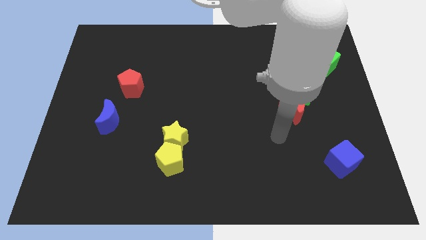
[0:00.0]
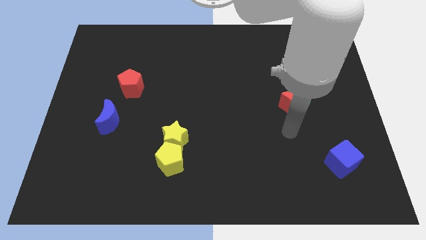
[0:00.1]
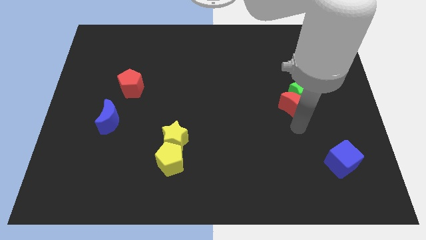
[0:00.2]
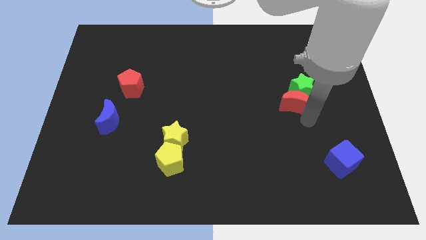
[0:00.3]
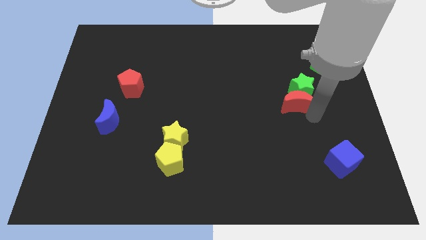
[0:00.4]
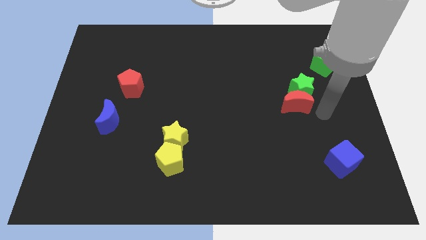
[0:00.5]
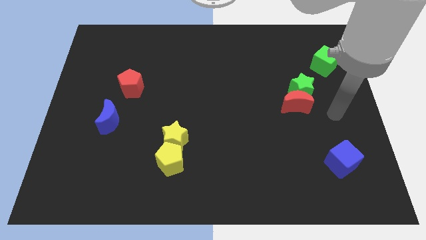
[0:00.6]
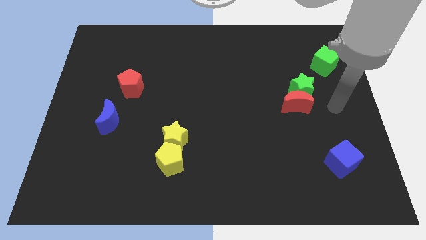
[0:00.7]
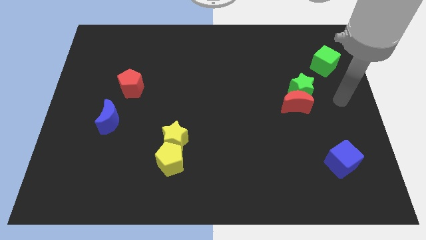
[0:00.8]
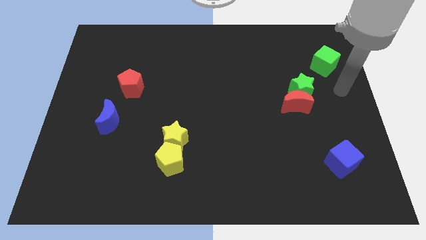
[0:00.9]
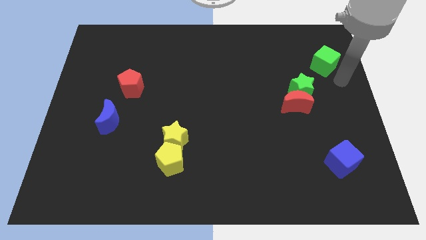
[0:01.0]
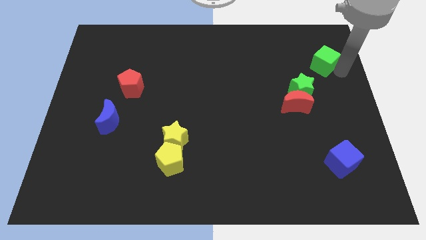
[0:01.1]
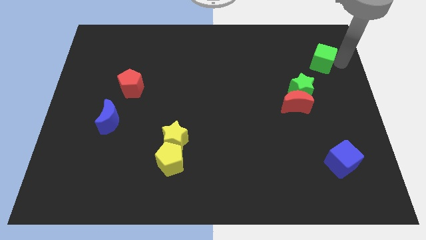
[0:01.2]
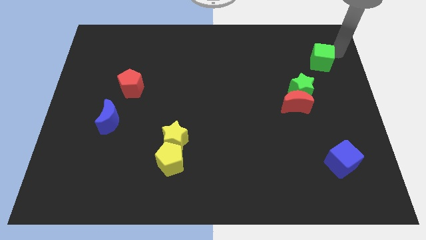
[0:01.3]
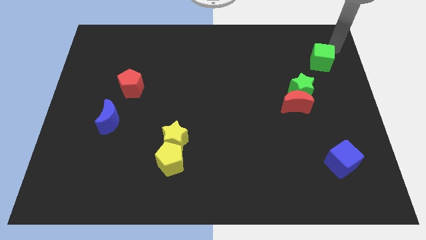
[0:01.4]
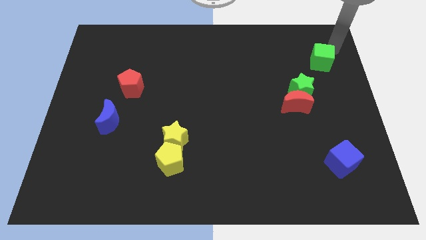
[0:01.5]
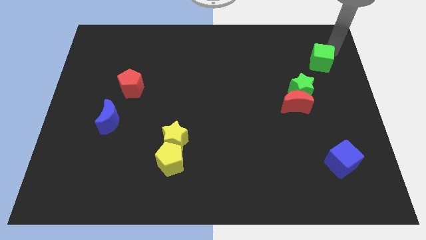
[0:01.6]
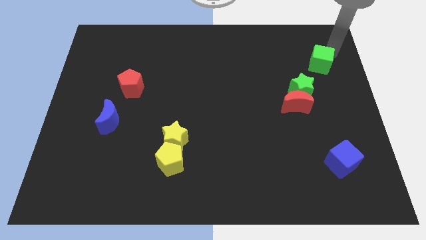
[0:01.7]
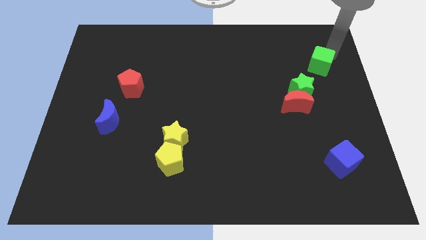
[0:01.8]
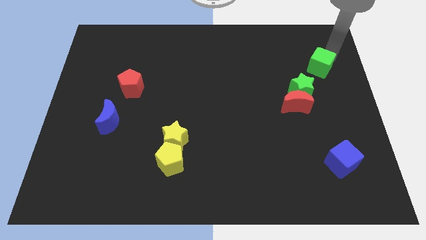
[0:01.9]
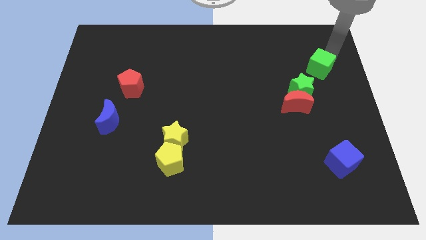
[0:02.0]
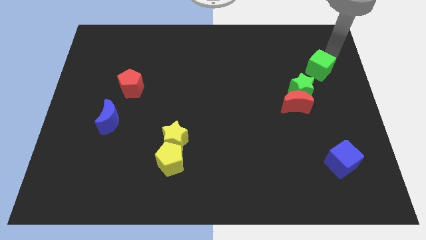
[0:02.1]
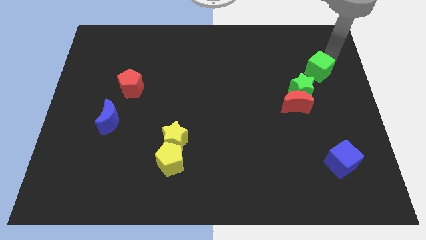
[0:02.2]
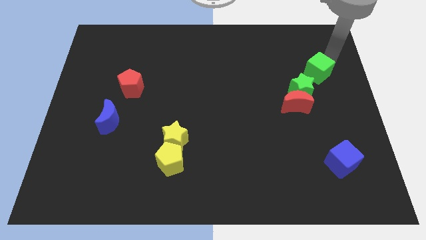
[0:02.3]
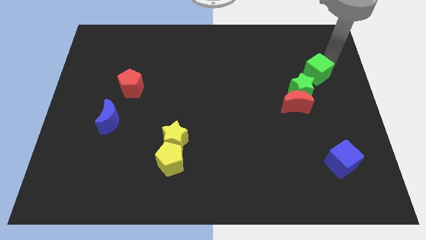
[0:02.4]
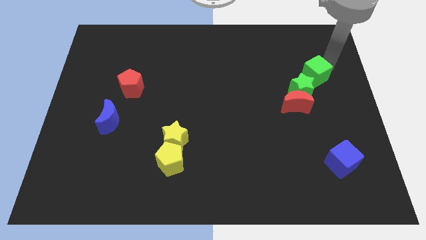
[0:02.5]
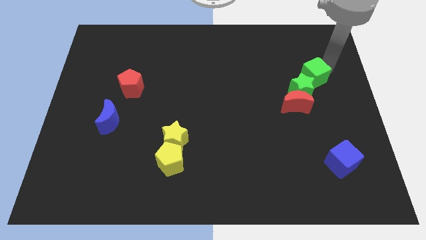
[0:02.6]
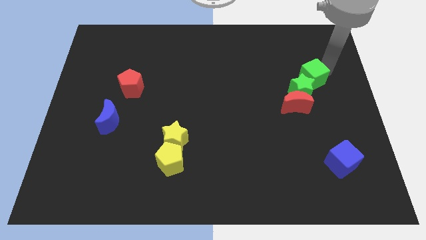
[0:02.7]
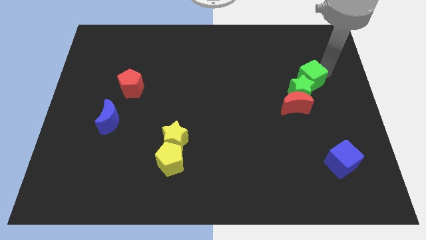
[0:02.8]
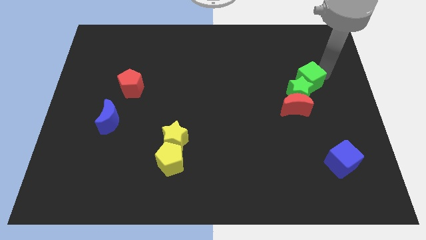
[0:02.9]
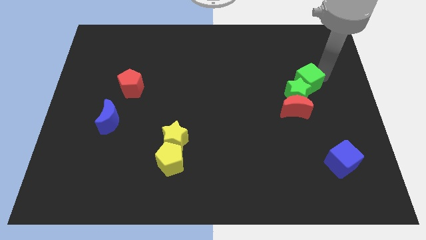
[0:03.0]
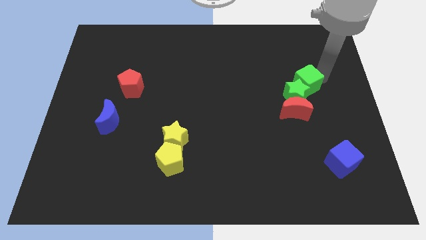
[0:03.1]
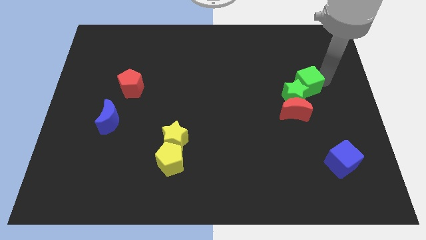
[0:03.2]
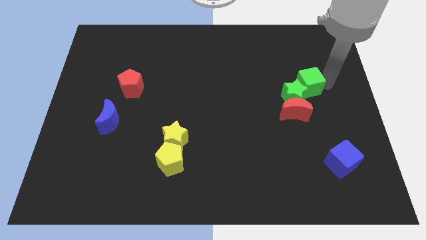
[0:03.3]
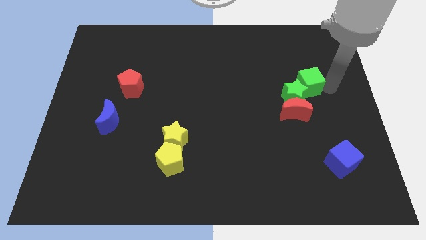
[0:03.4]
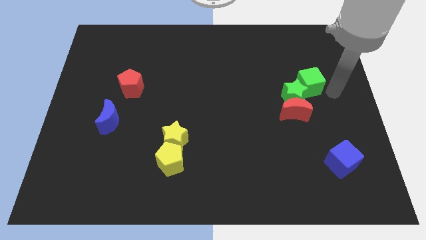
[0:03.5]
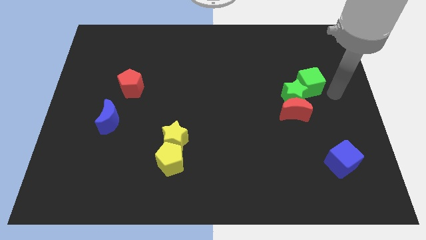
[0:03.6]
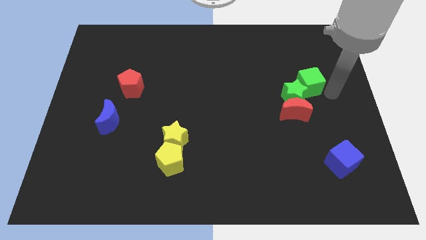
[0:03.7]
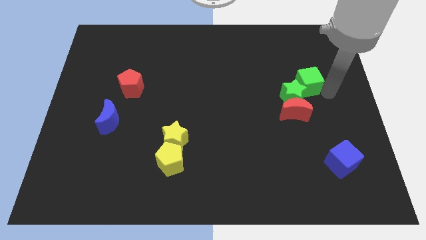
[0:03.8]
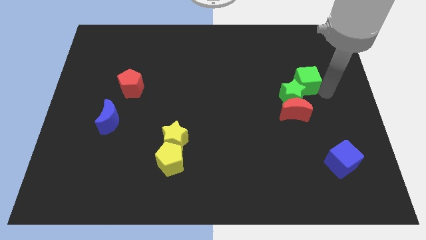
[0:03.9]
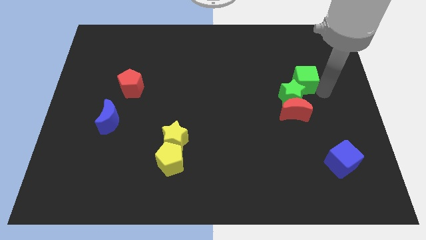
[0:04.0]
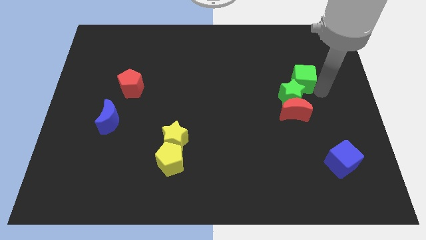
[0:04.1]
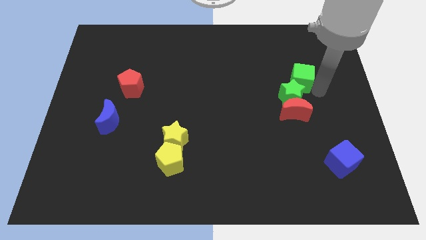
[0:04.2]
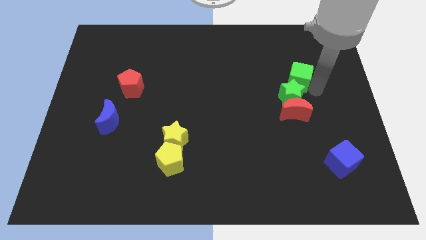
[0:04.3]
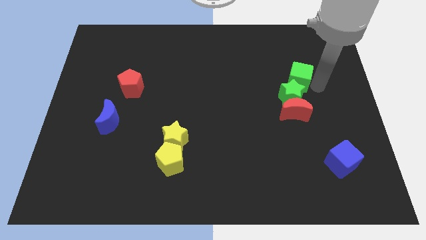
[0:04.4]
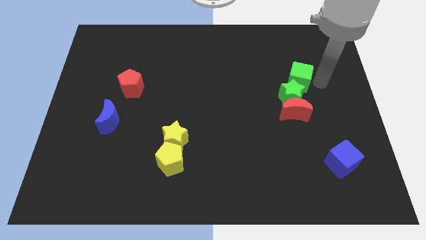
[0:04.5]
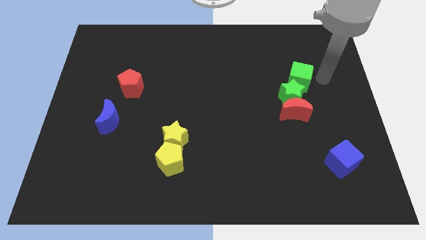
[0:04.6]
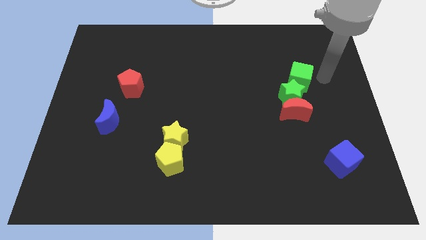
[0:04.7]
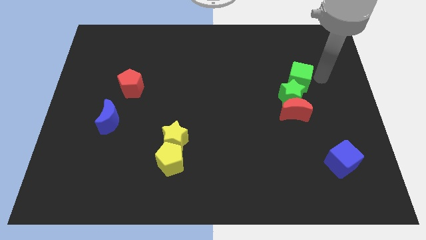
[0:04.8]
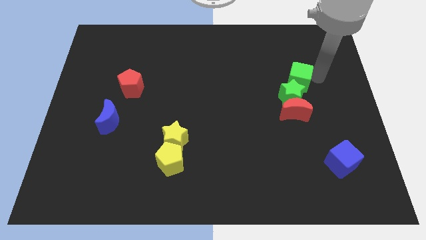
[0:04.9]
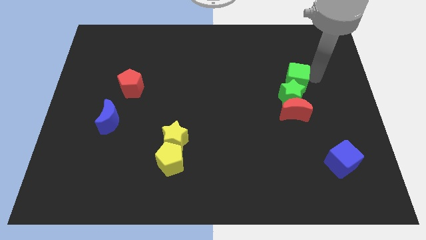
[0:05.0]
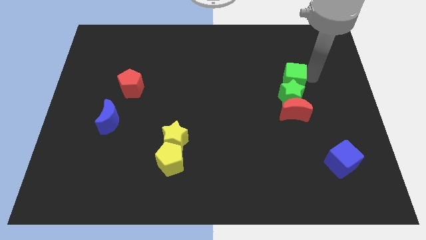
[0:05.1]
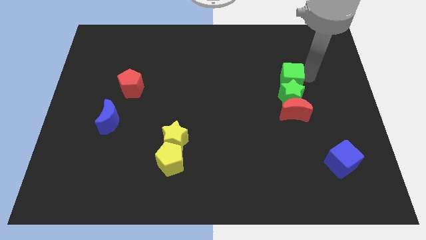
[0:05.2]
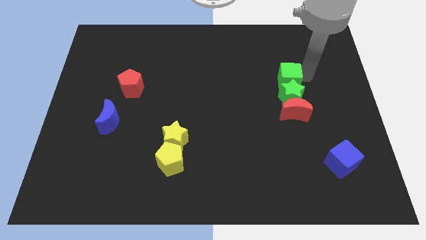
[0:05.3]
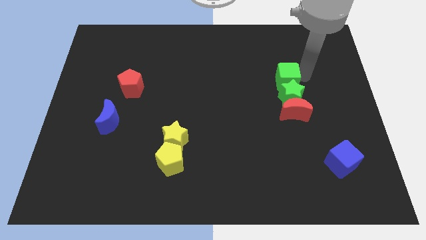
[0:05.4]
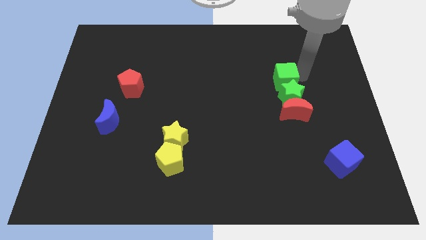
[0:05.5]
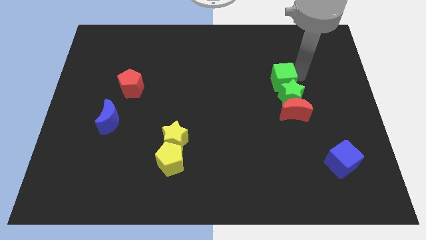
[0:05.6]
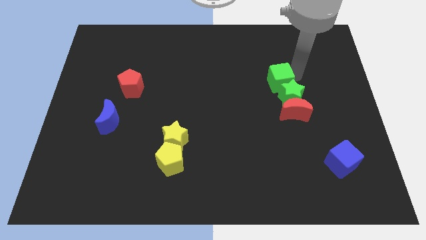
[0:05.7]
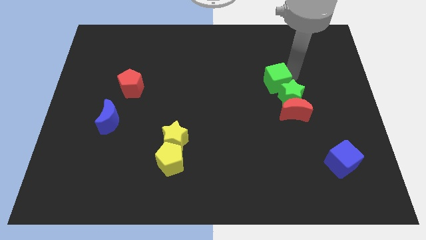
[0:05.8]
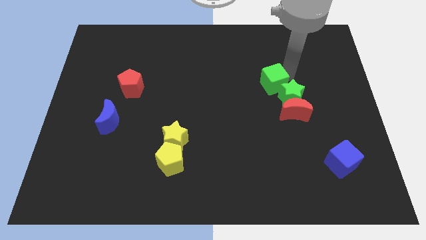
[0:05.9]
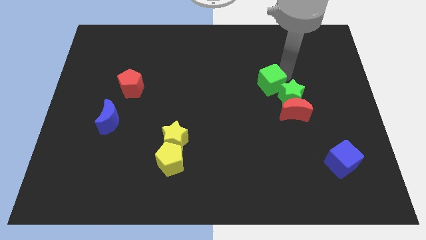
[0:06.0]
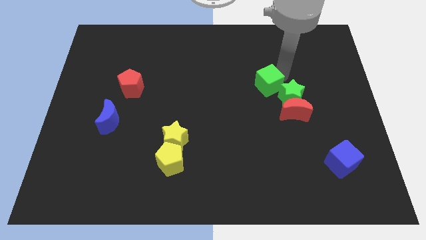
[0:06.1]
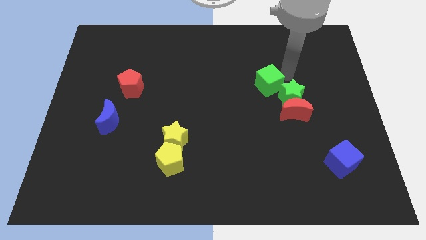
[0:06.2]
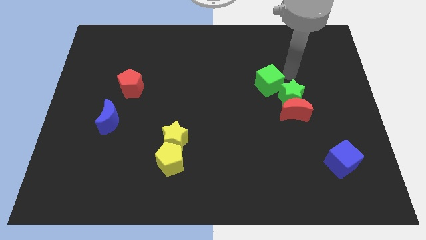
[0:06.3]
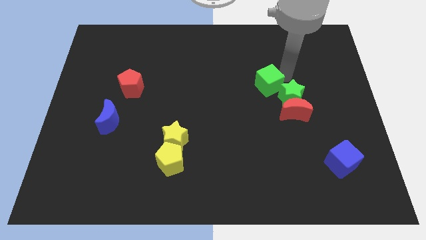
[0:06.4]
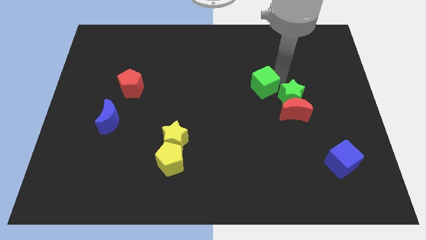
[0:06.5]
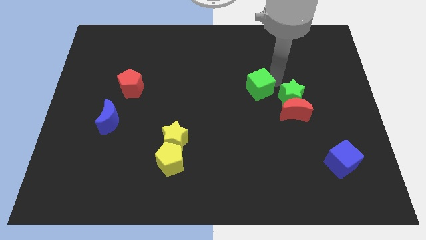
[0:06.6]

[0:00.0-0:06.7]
move the green cube to the center of the board
